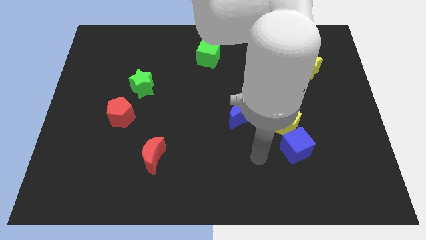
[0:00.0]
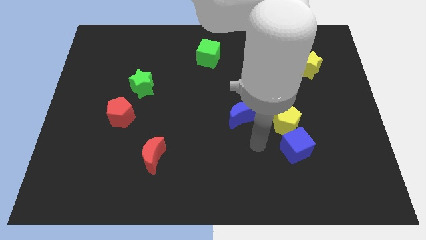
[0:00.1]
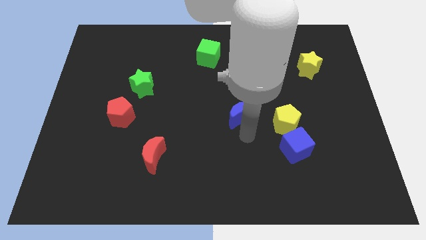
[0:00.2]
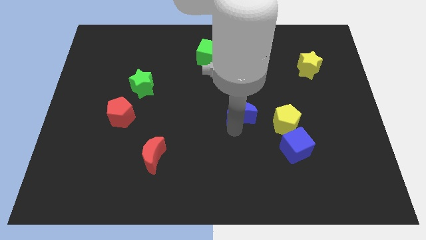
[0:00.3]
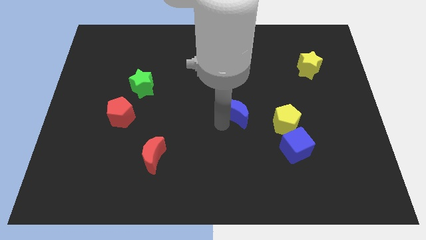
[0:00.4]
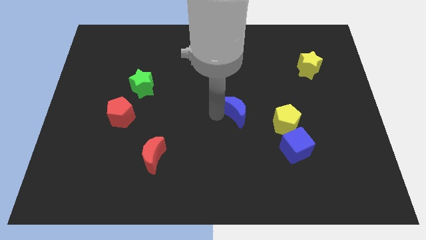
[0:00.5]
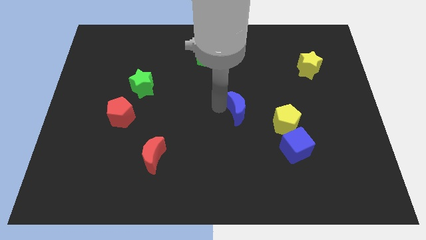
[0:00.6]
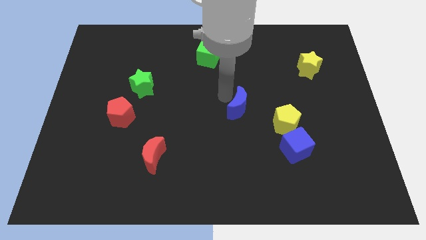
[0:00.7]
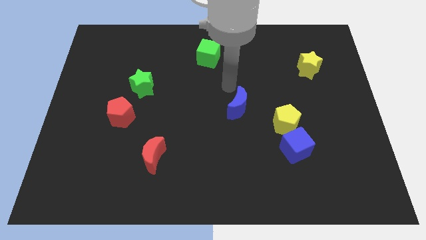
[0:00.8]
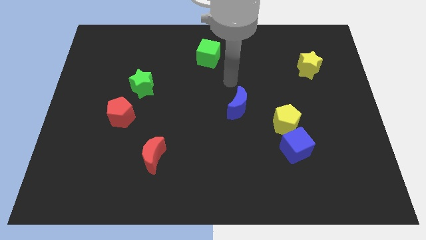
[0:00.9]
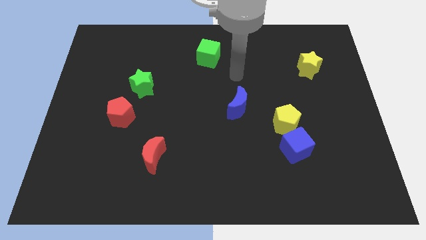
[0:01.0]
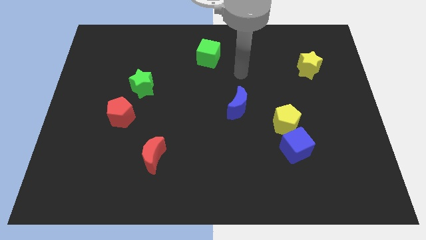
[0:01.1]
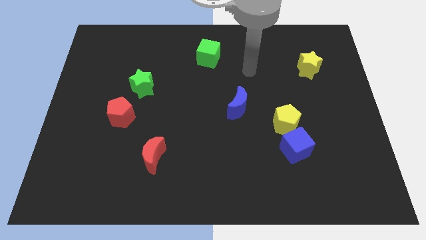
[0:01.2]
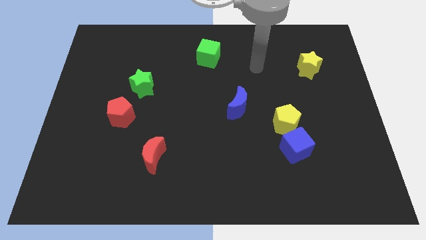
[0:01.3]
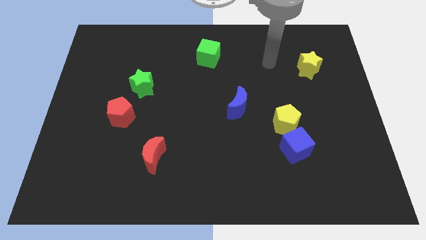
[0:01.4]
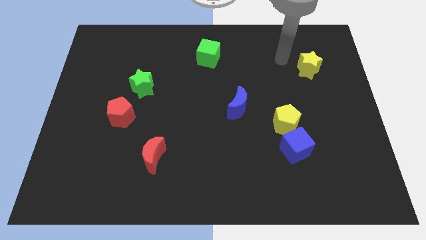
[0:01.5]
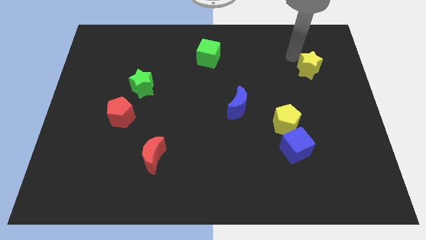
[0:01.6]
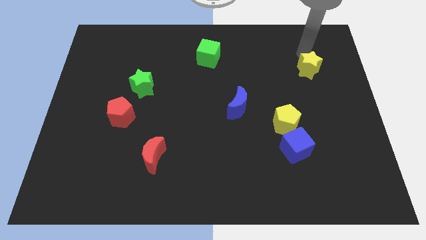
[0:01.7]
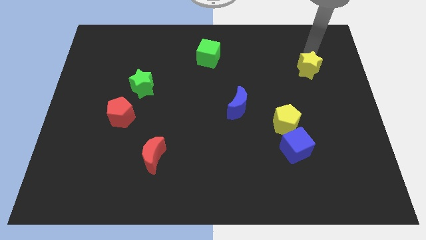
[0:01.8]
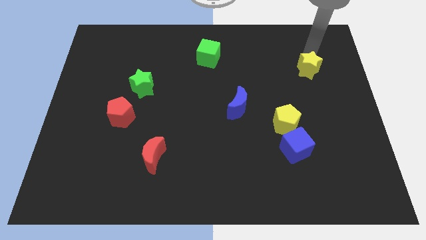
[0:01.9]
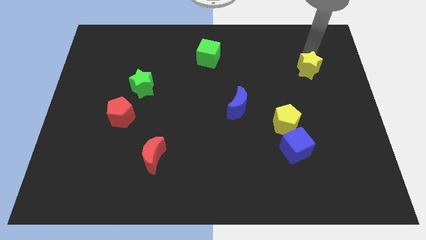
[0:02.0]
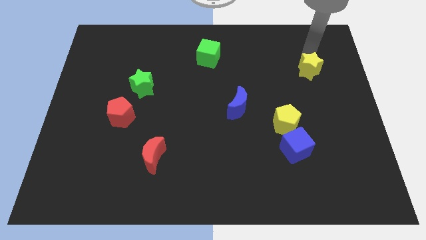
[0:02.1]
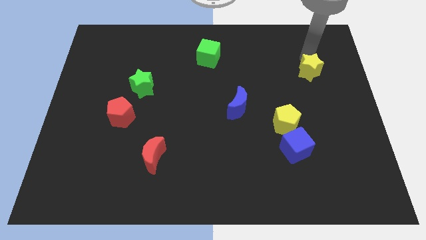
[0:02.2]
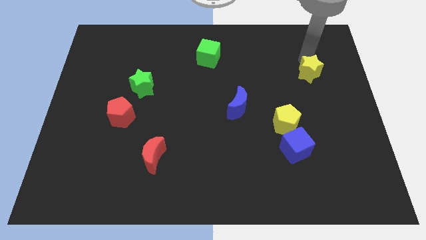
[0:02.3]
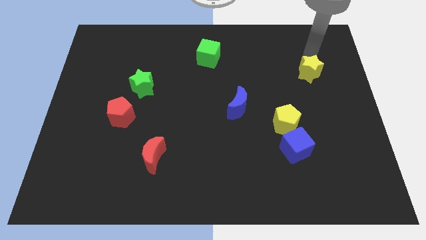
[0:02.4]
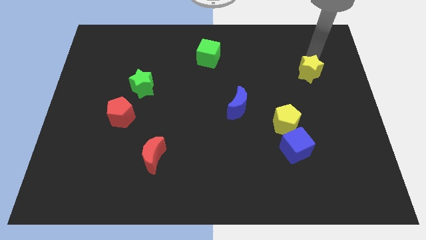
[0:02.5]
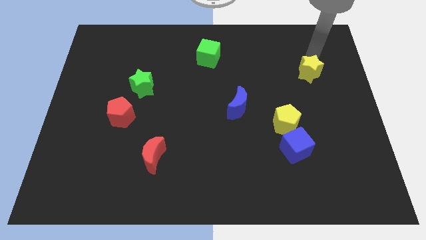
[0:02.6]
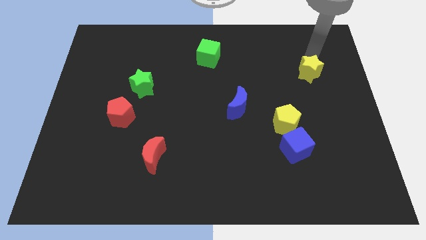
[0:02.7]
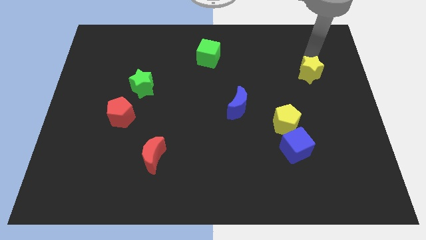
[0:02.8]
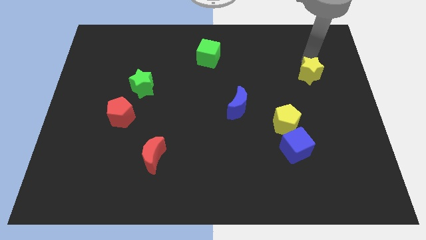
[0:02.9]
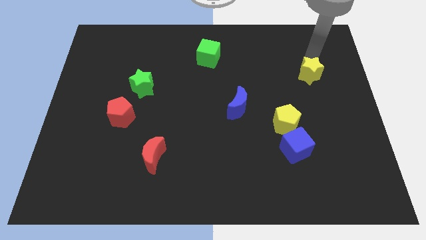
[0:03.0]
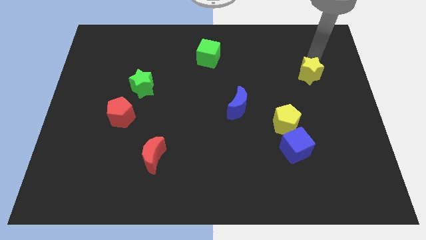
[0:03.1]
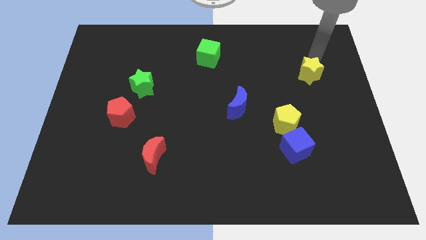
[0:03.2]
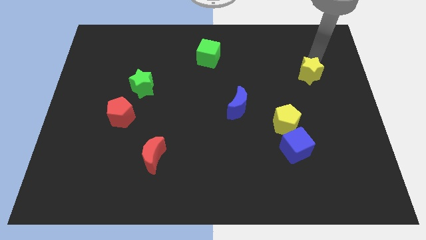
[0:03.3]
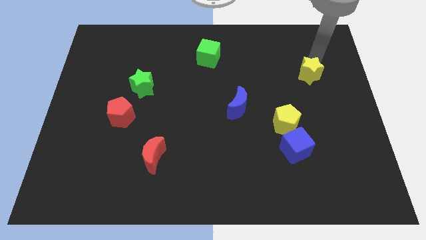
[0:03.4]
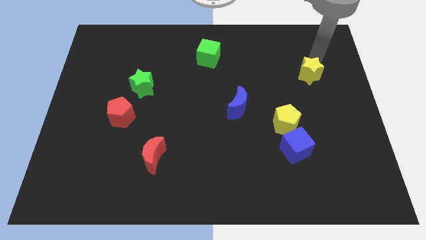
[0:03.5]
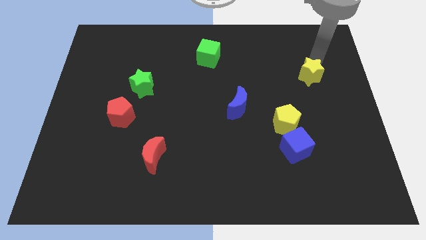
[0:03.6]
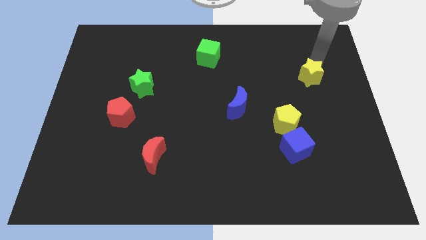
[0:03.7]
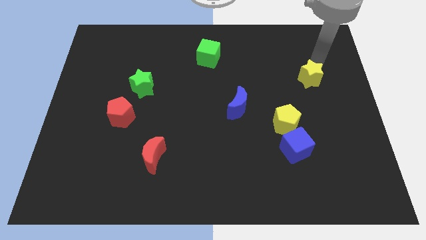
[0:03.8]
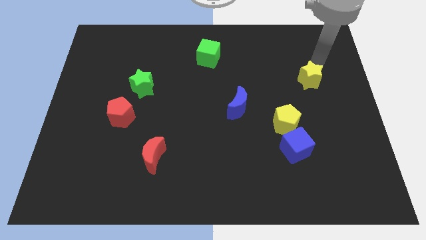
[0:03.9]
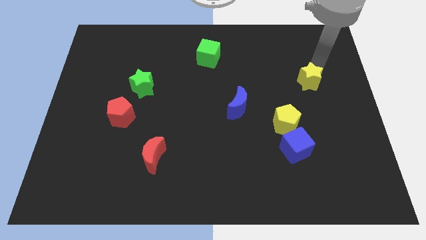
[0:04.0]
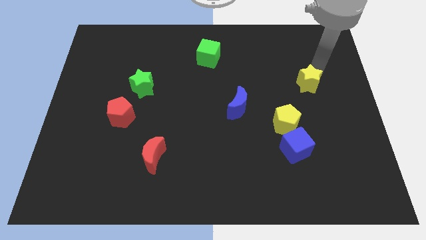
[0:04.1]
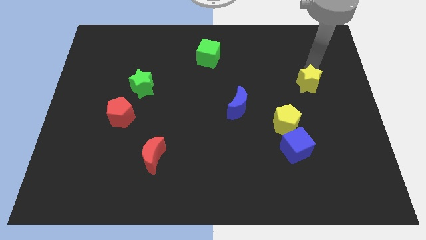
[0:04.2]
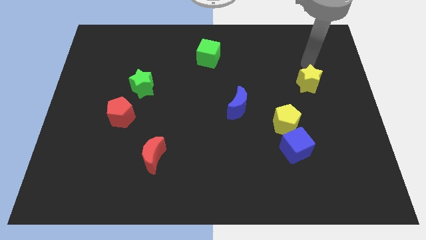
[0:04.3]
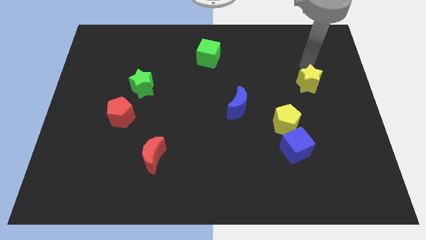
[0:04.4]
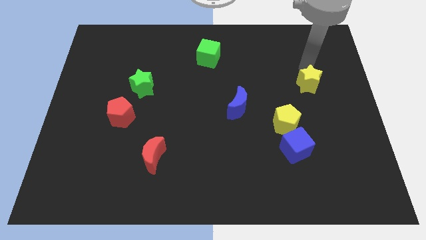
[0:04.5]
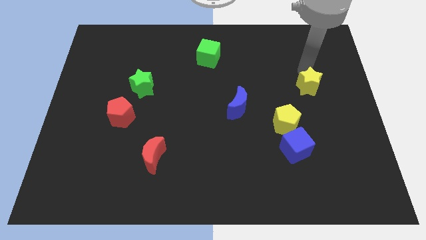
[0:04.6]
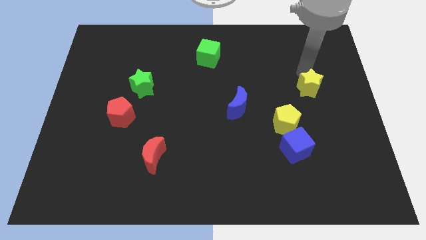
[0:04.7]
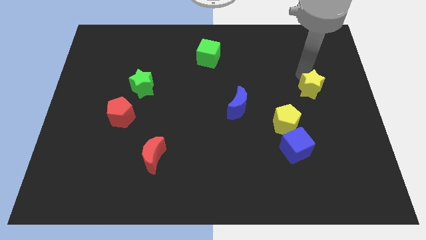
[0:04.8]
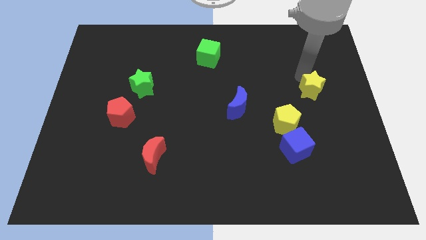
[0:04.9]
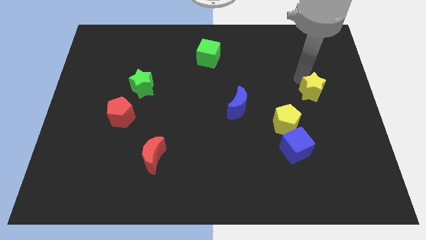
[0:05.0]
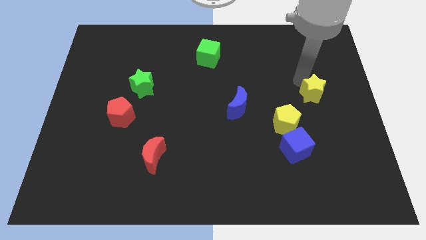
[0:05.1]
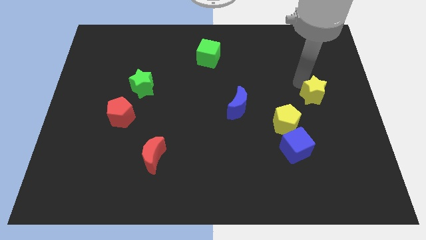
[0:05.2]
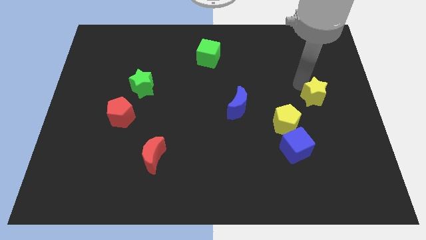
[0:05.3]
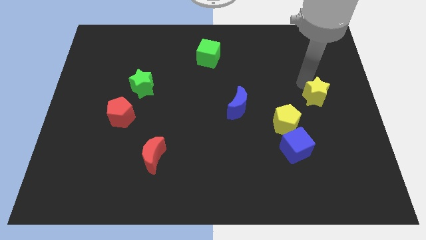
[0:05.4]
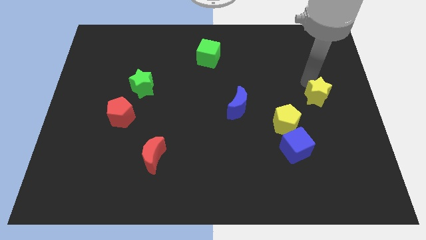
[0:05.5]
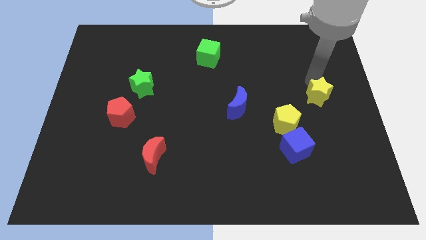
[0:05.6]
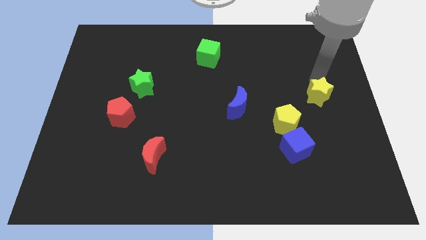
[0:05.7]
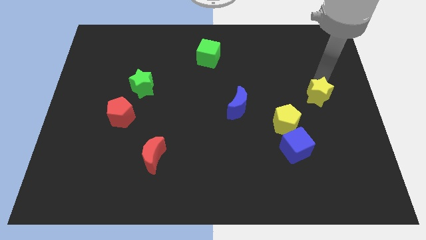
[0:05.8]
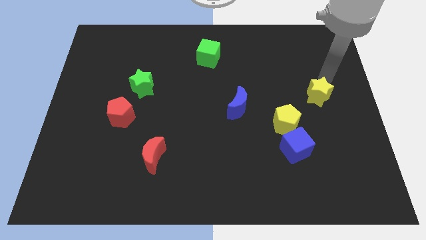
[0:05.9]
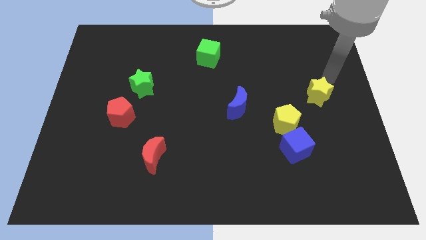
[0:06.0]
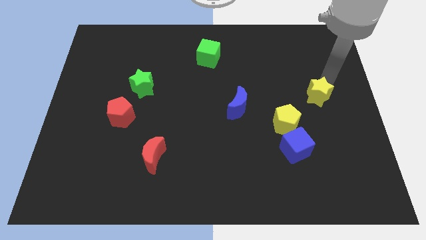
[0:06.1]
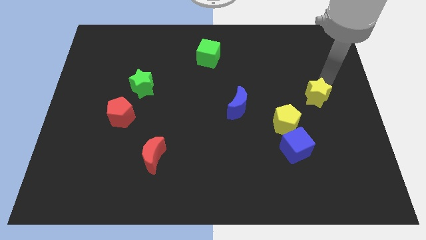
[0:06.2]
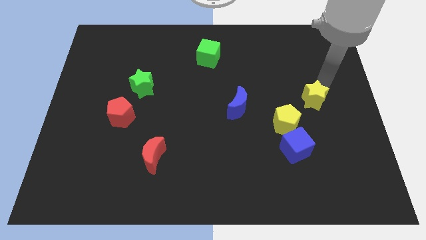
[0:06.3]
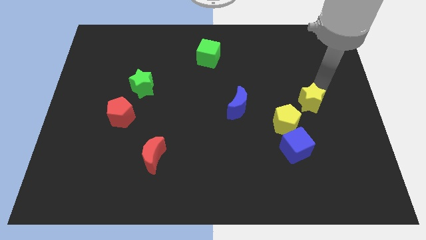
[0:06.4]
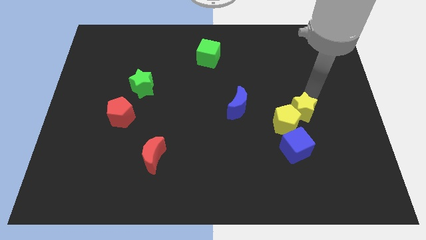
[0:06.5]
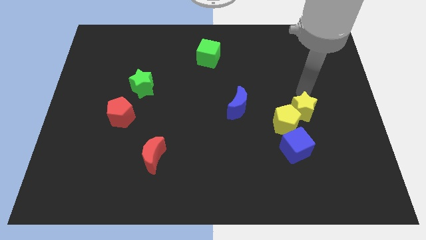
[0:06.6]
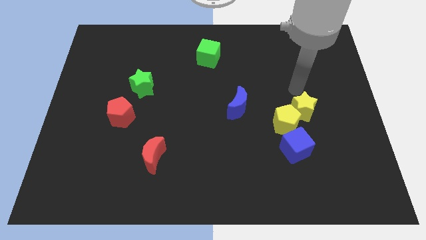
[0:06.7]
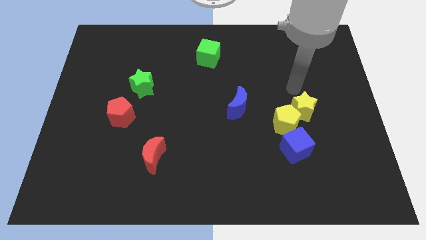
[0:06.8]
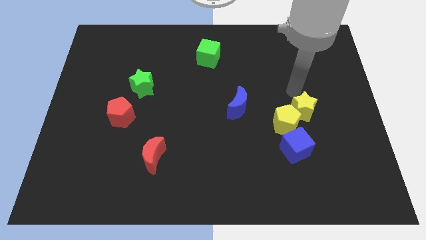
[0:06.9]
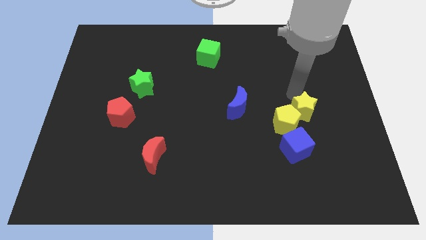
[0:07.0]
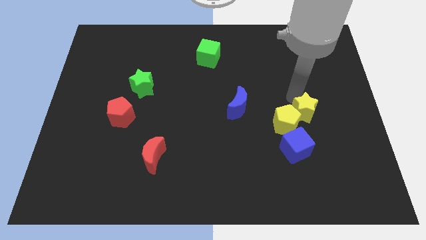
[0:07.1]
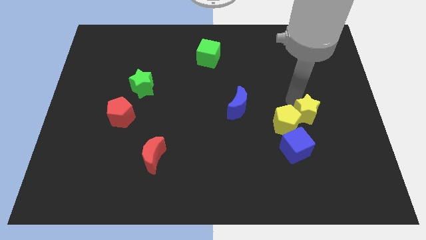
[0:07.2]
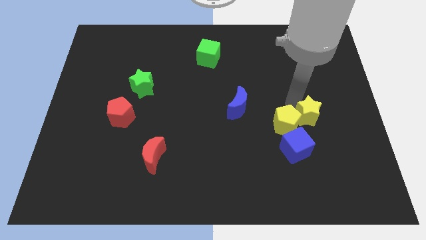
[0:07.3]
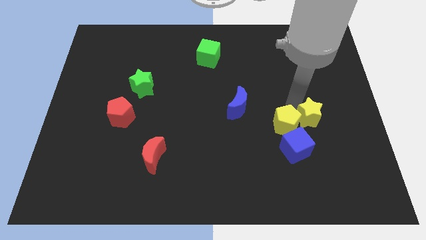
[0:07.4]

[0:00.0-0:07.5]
slide the yellow star to the bottom right of the yellow pentagon
